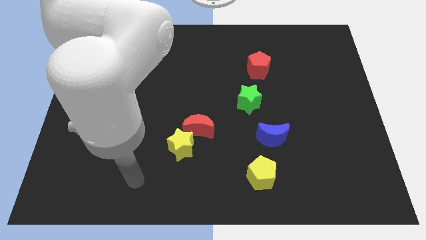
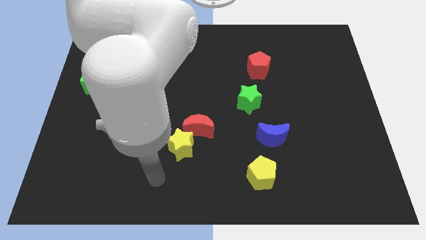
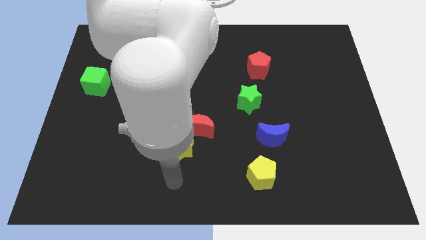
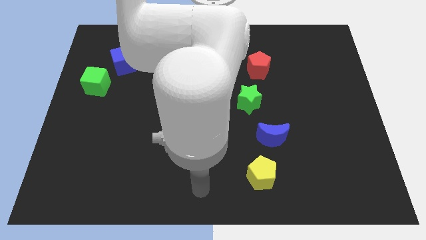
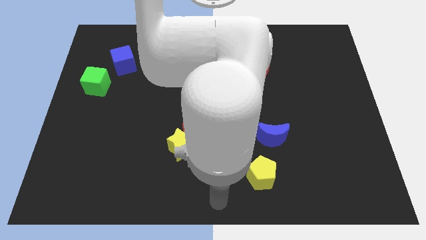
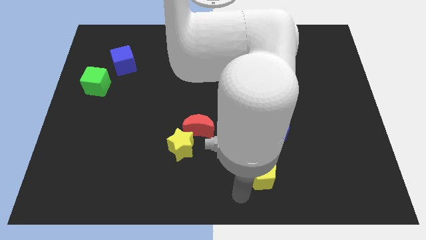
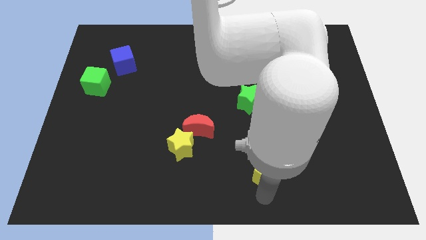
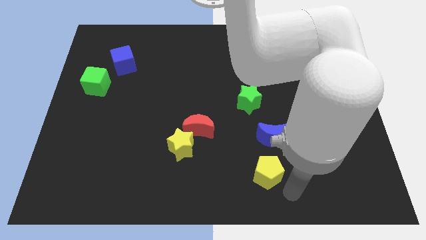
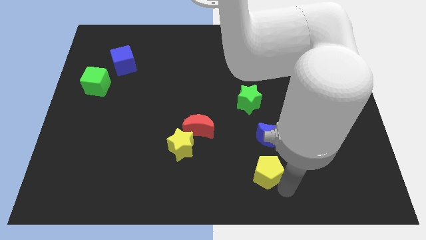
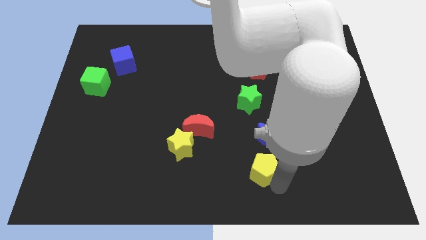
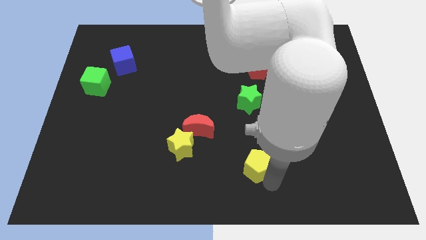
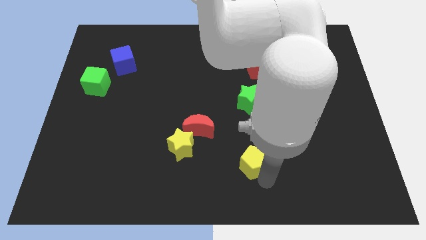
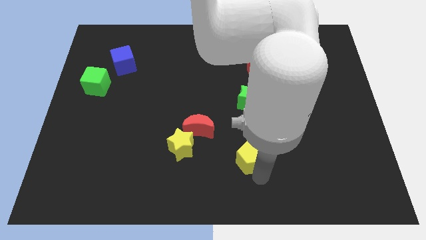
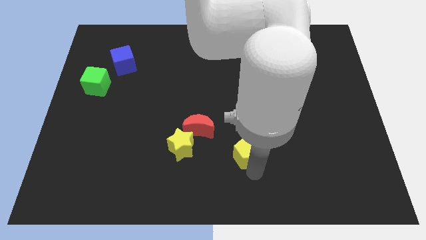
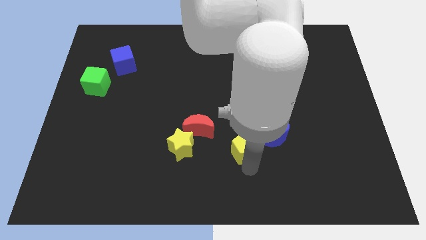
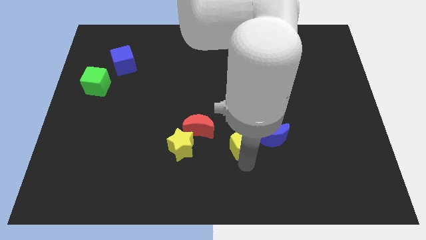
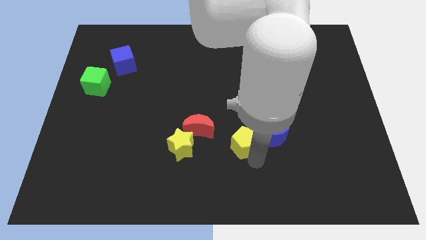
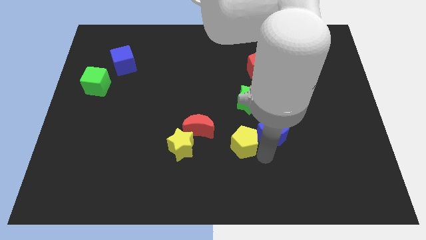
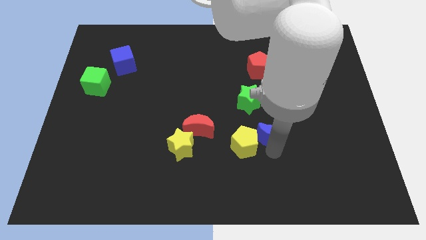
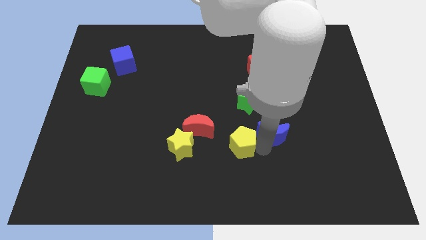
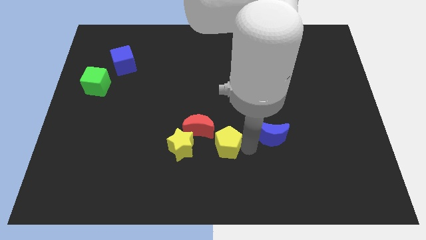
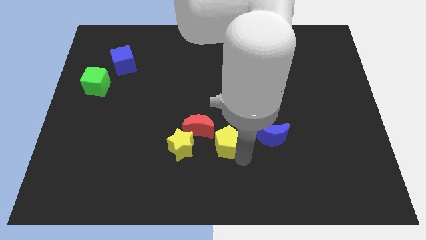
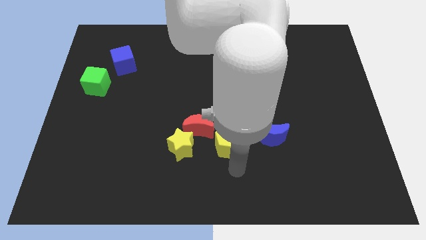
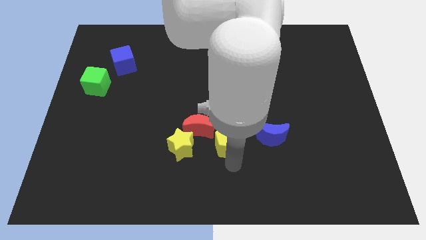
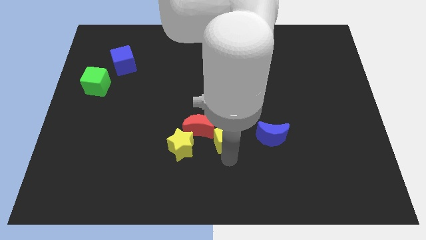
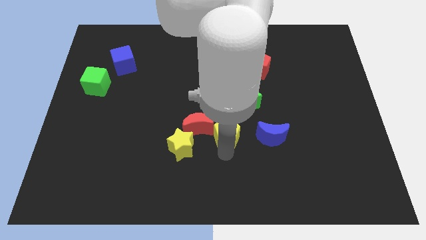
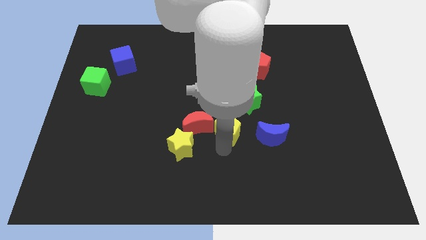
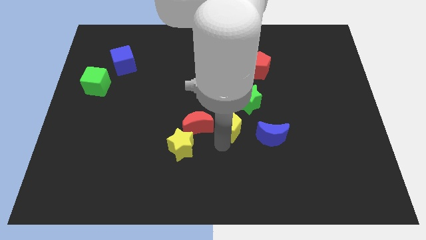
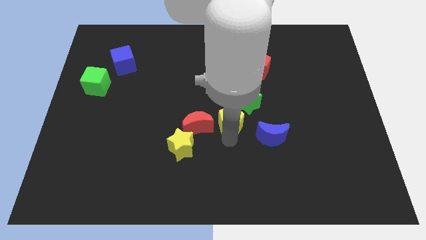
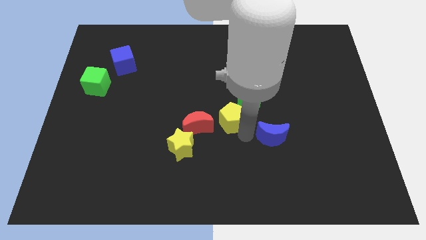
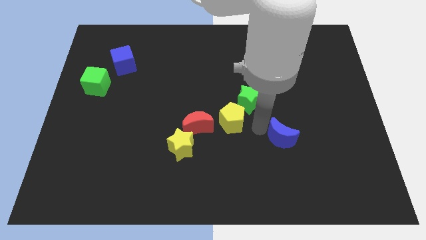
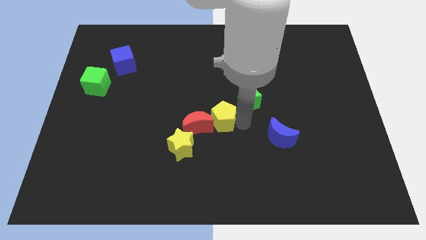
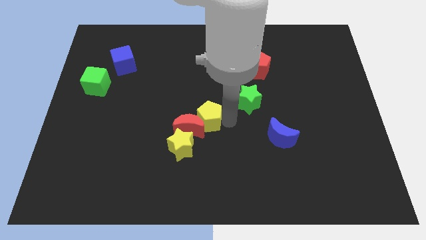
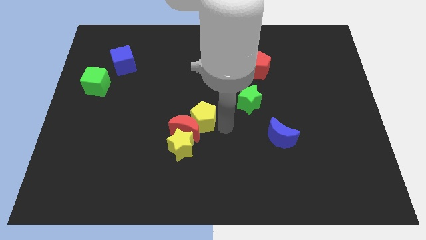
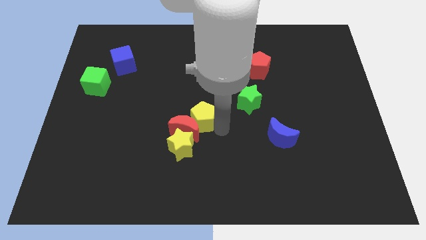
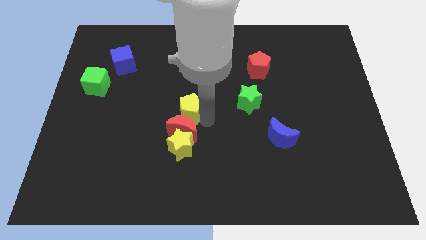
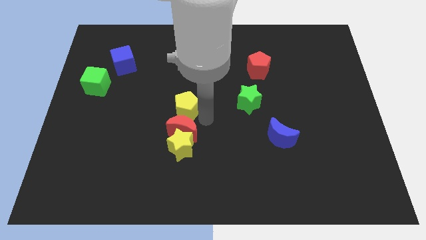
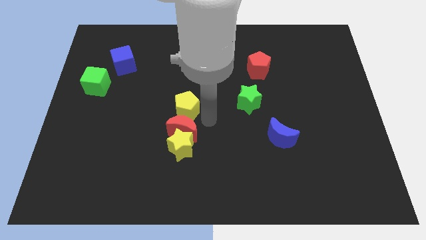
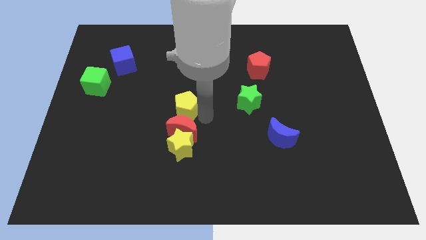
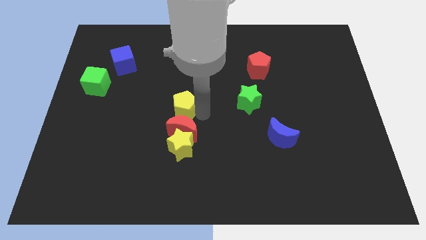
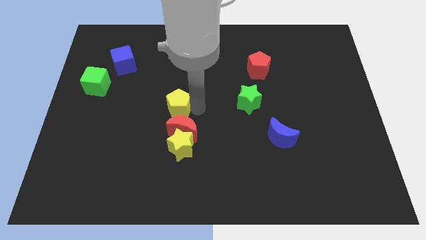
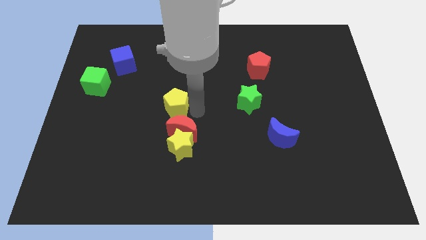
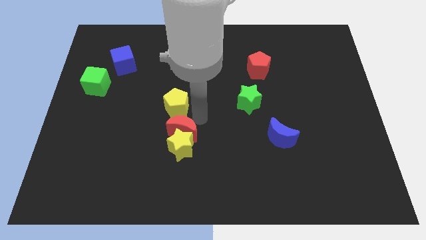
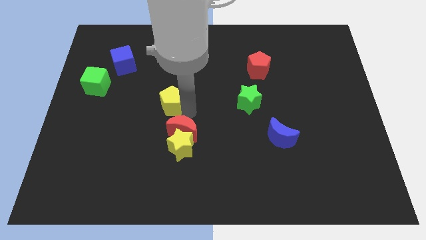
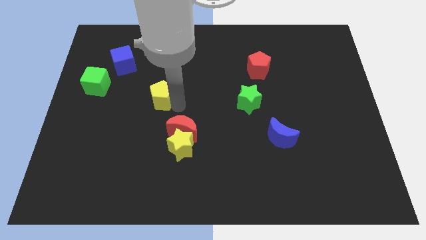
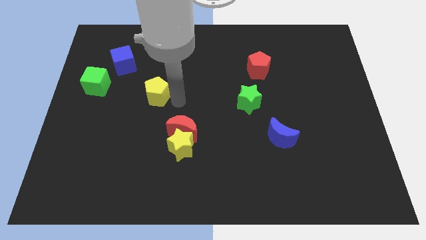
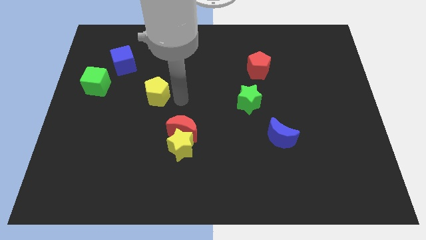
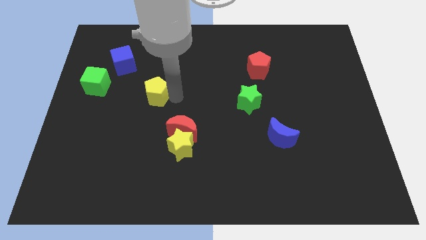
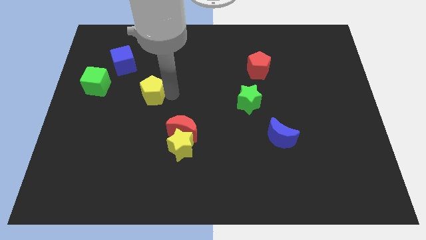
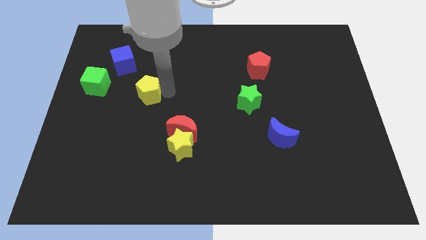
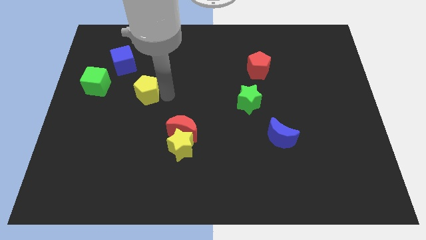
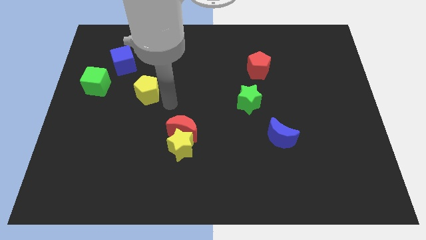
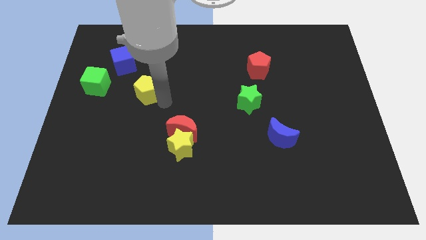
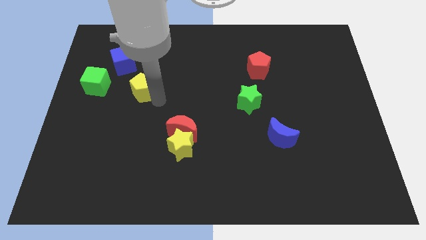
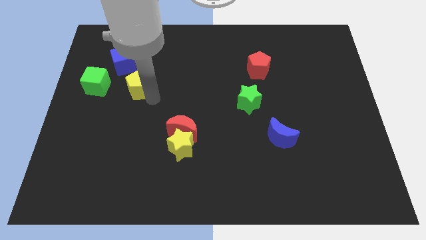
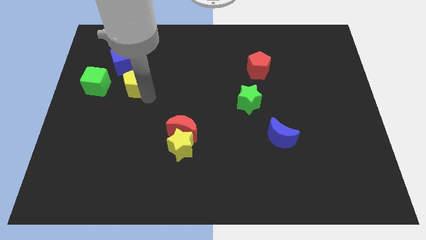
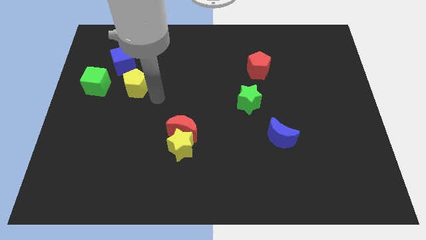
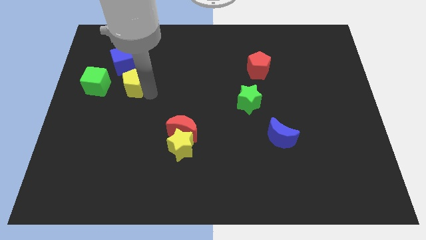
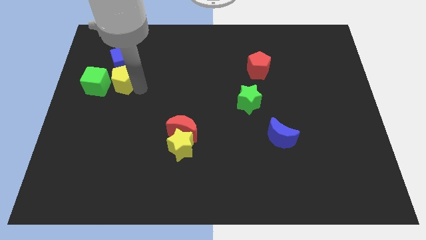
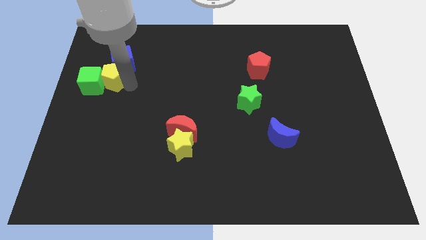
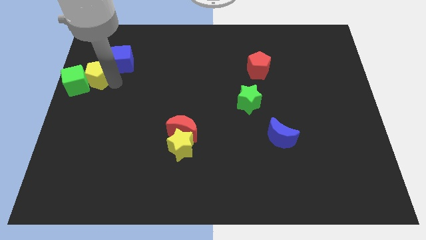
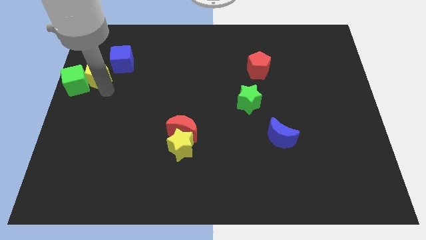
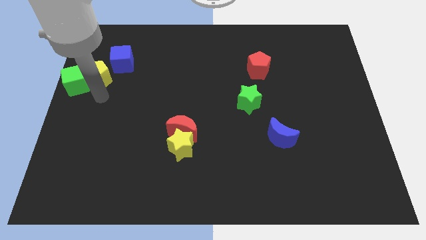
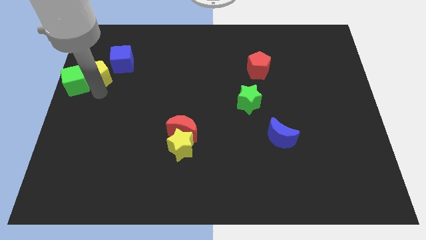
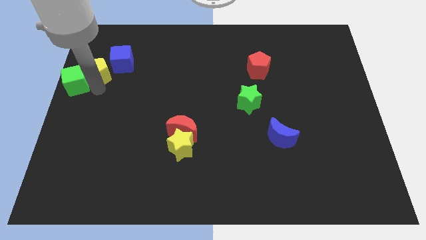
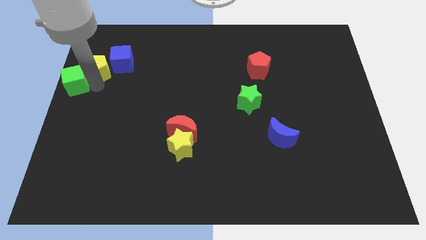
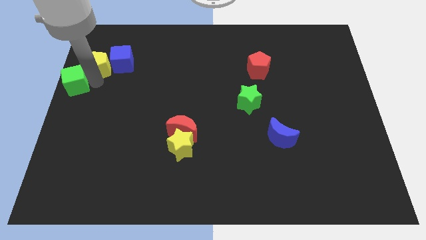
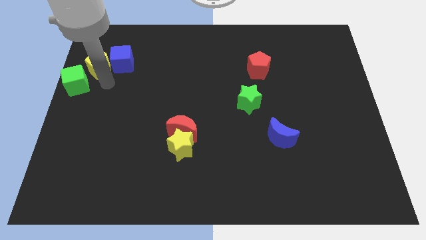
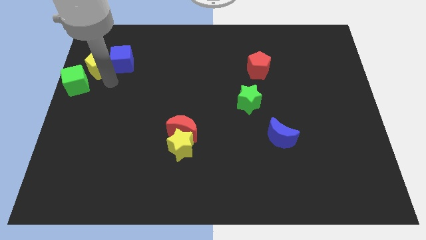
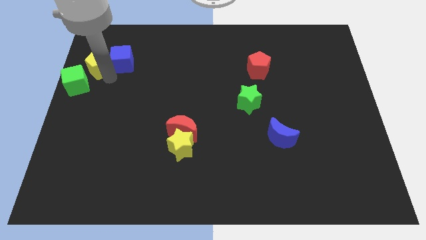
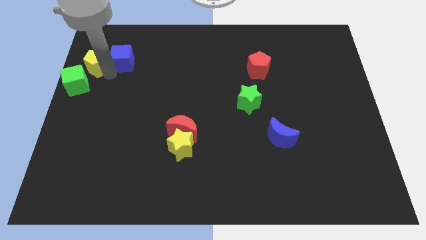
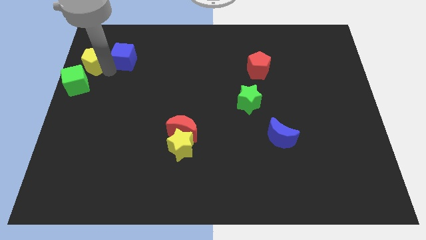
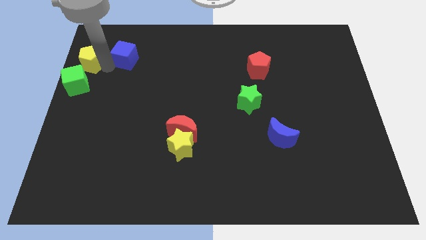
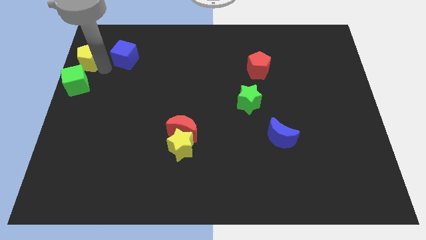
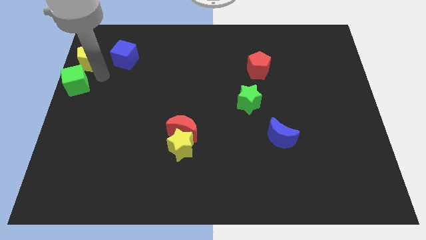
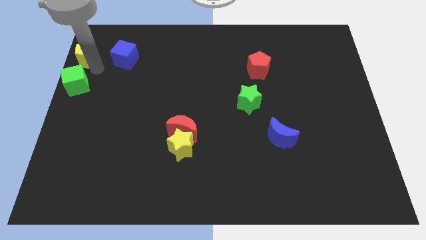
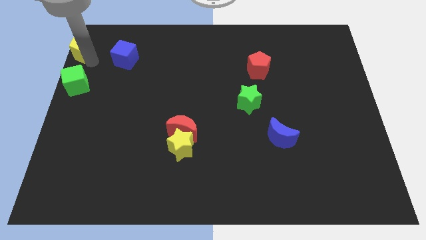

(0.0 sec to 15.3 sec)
move the yellow pentagon to the top left
